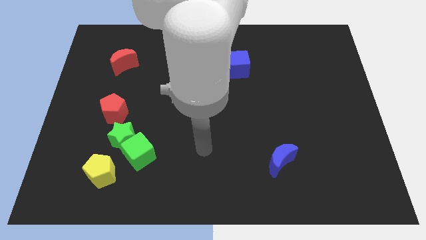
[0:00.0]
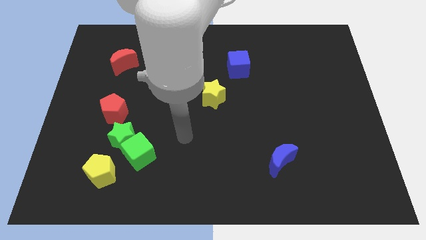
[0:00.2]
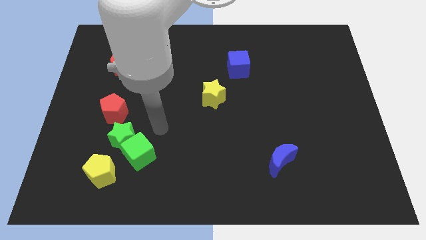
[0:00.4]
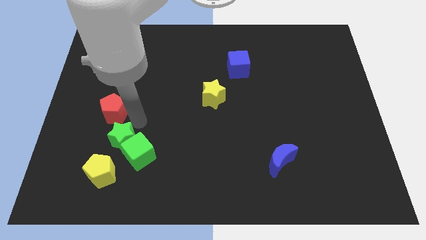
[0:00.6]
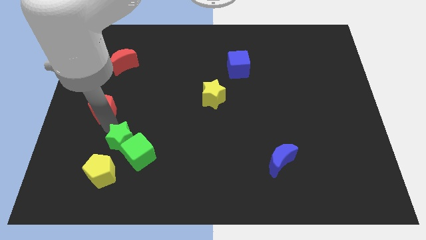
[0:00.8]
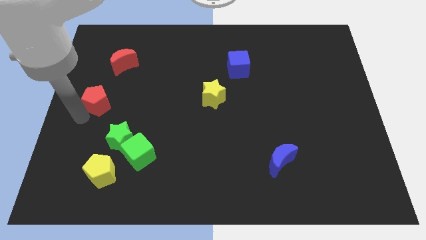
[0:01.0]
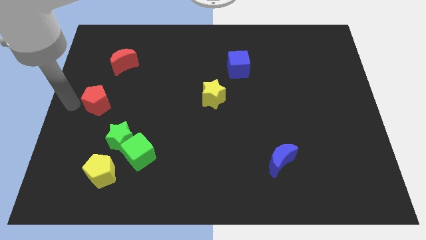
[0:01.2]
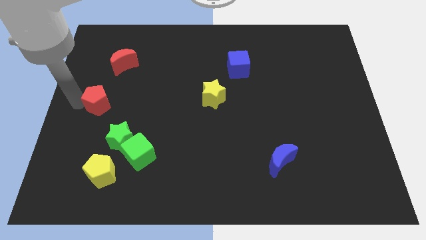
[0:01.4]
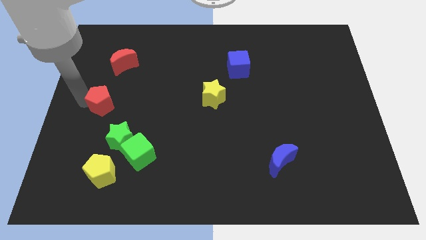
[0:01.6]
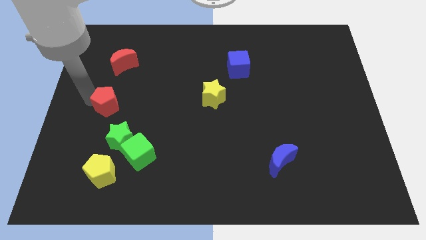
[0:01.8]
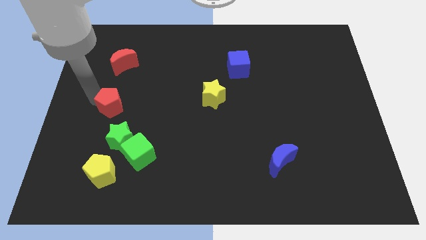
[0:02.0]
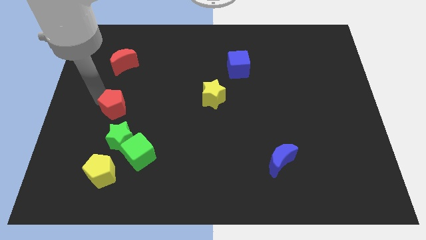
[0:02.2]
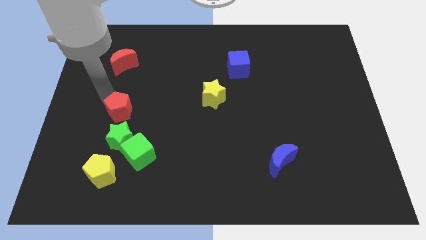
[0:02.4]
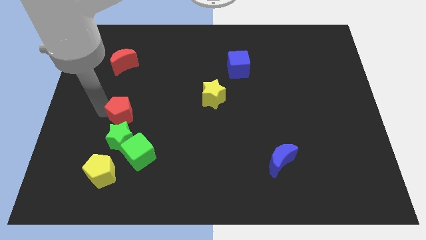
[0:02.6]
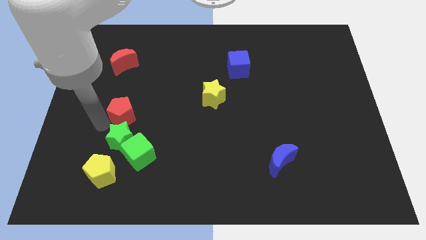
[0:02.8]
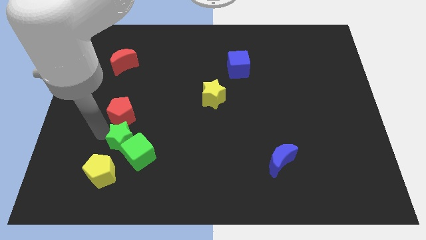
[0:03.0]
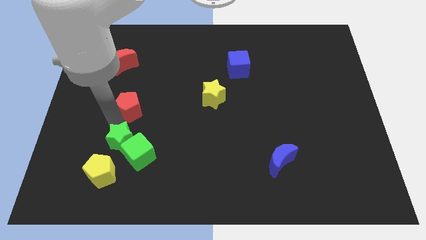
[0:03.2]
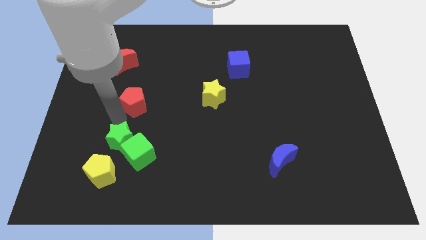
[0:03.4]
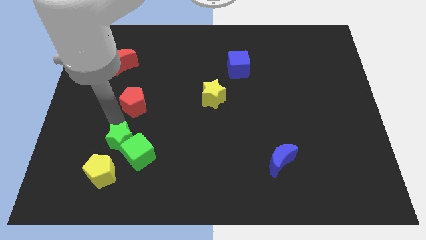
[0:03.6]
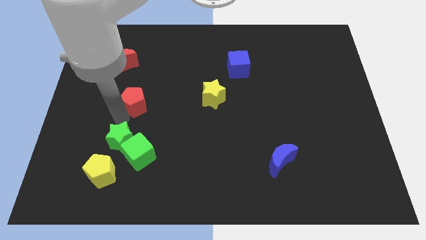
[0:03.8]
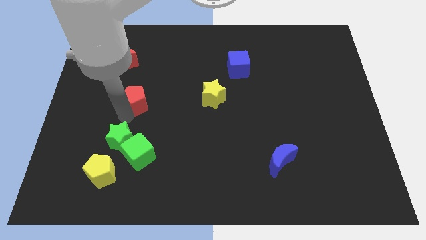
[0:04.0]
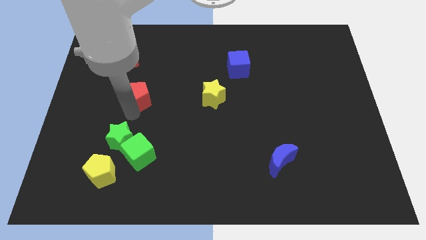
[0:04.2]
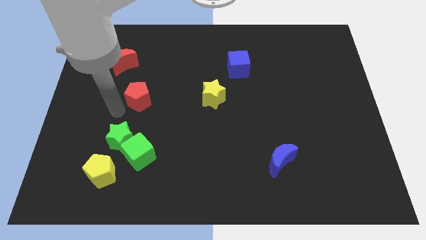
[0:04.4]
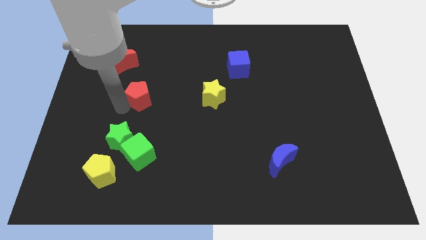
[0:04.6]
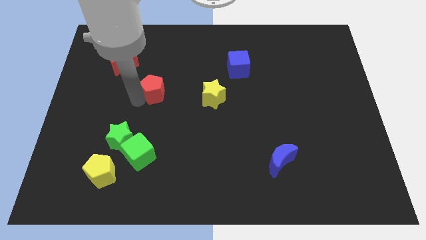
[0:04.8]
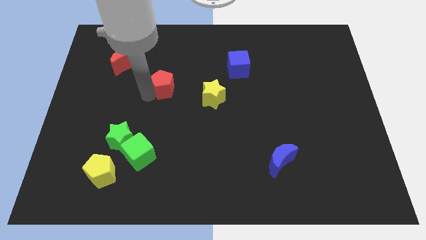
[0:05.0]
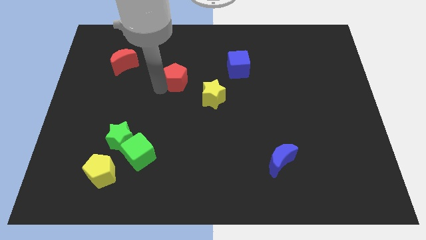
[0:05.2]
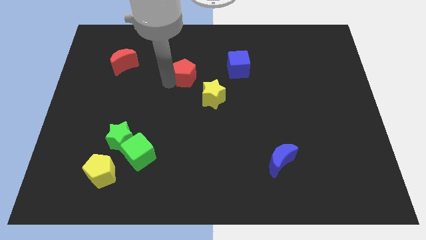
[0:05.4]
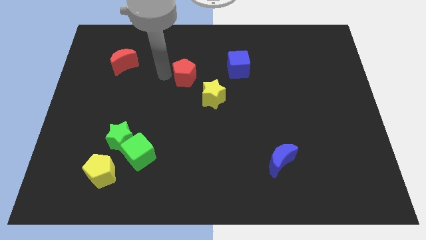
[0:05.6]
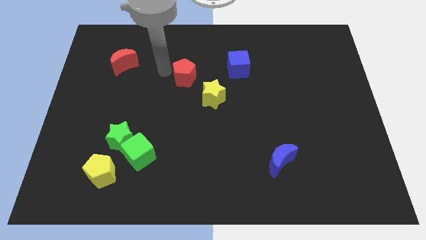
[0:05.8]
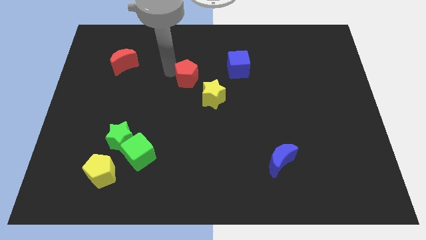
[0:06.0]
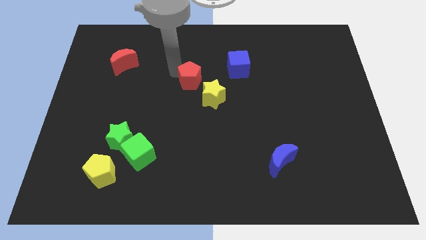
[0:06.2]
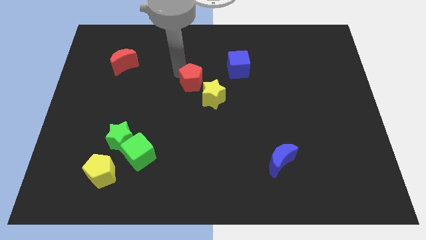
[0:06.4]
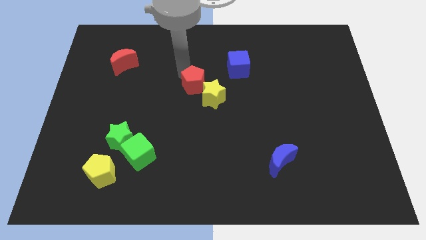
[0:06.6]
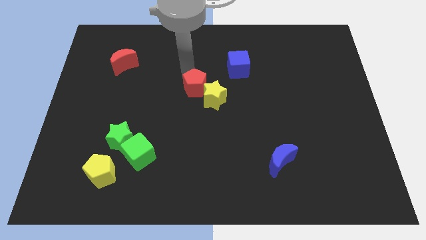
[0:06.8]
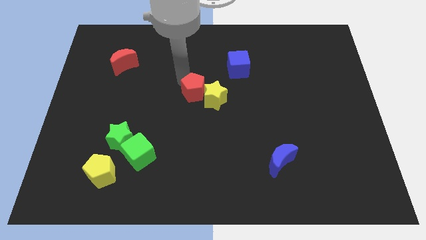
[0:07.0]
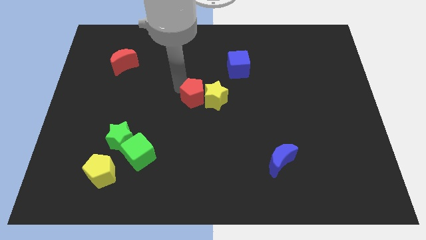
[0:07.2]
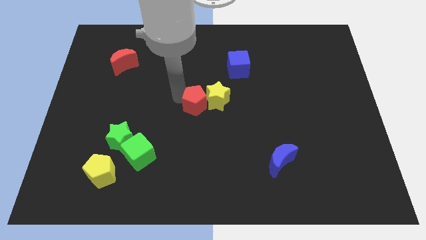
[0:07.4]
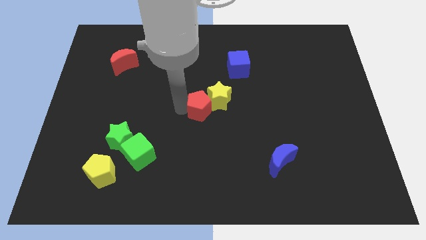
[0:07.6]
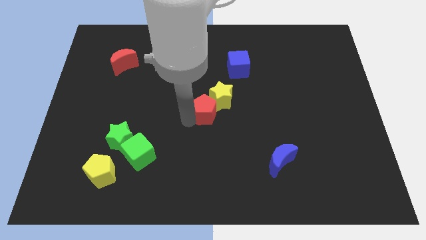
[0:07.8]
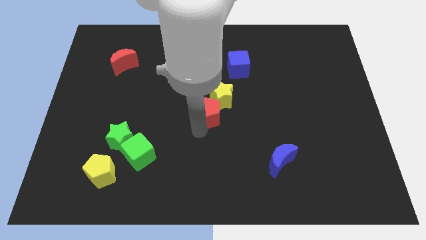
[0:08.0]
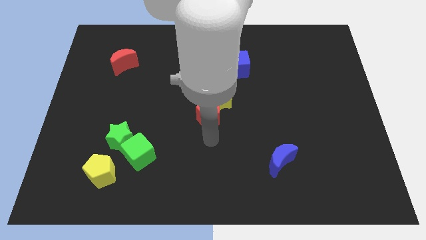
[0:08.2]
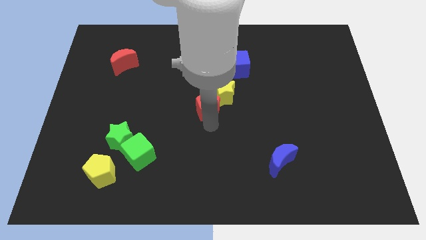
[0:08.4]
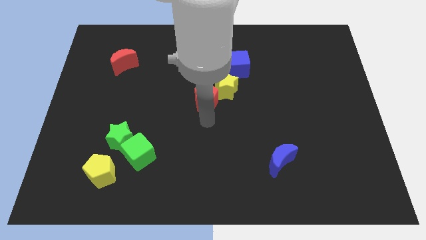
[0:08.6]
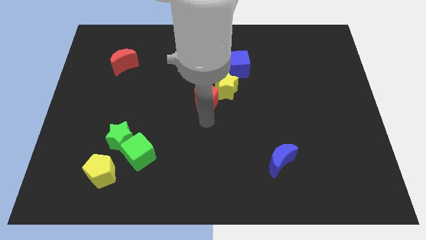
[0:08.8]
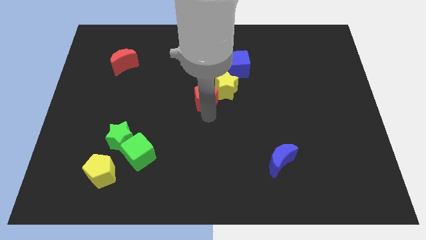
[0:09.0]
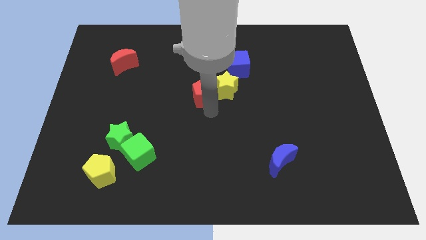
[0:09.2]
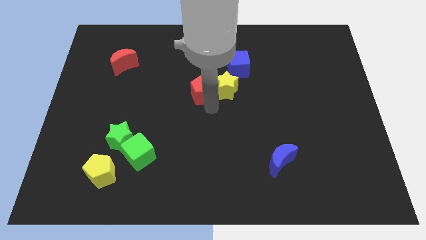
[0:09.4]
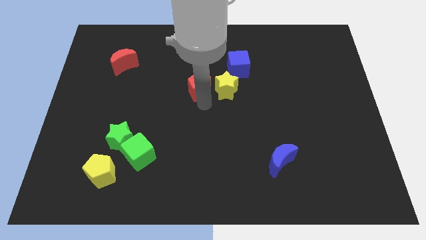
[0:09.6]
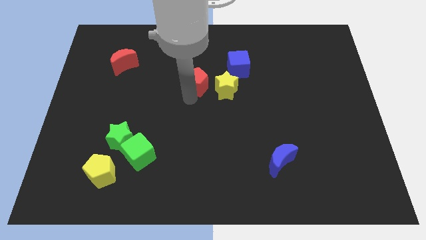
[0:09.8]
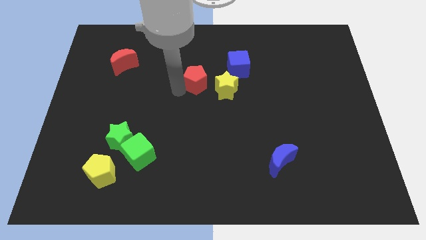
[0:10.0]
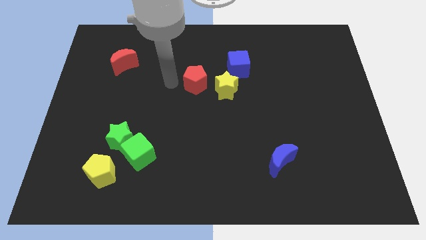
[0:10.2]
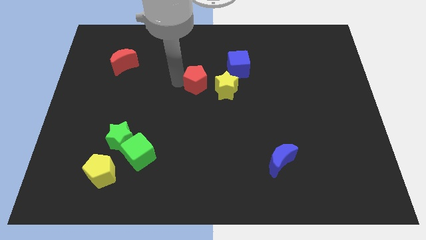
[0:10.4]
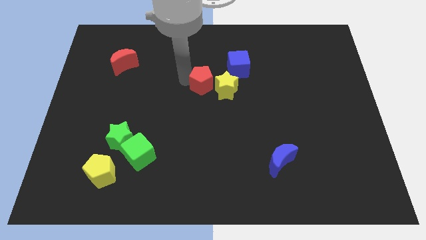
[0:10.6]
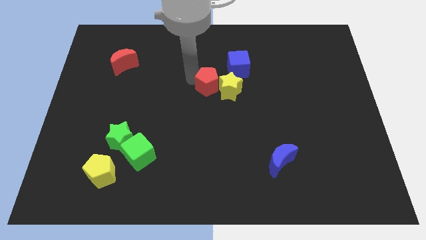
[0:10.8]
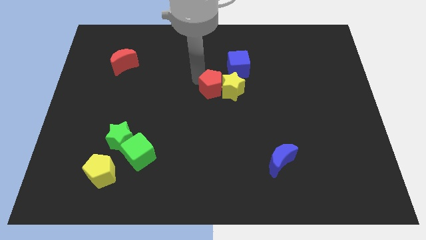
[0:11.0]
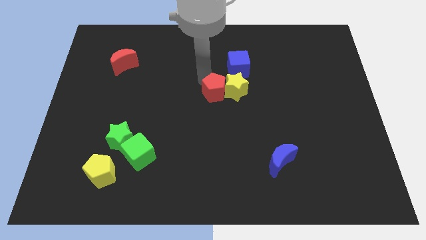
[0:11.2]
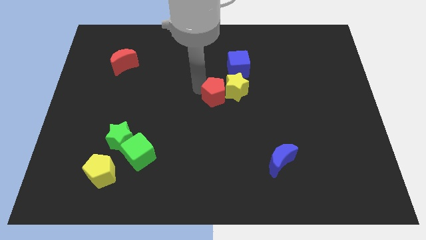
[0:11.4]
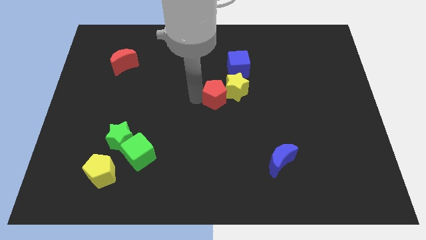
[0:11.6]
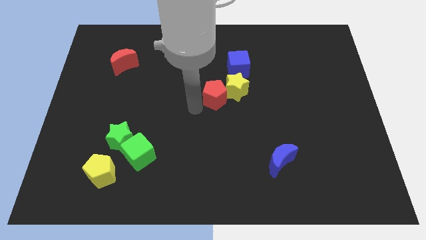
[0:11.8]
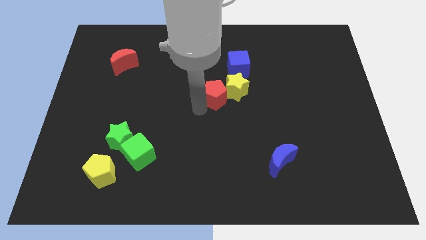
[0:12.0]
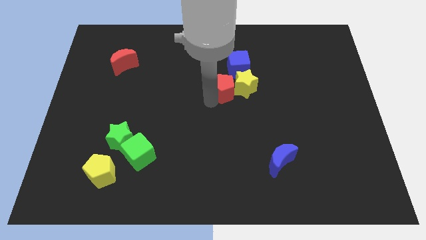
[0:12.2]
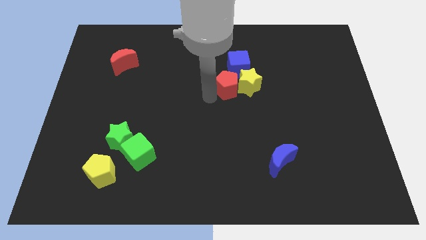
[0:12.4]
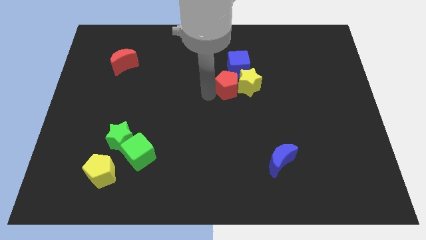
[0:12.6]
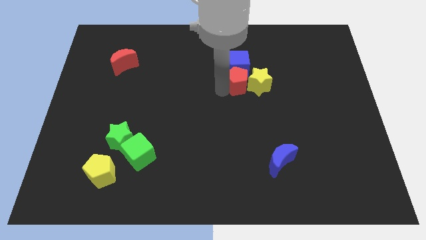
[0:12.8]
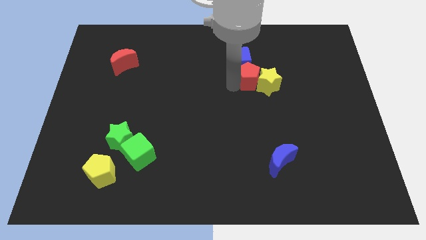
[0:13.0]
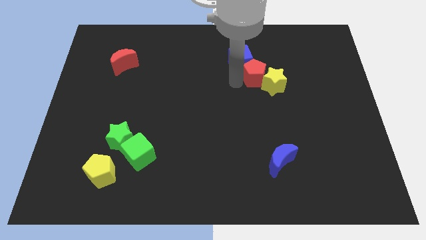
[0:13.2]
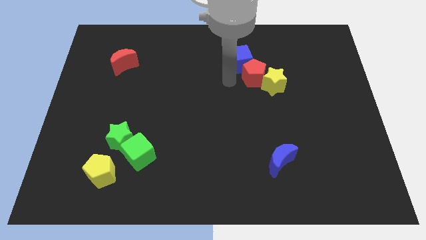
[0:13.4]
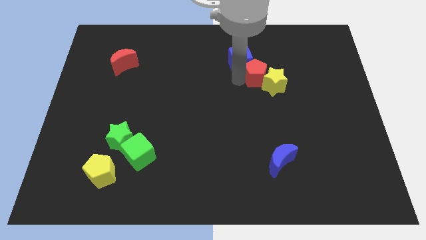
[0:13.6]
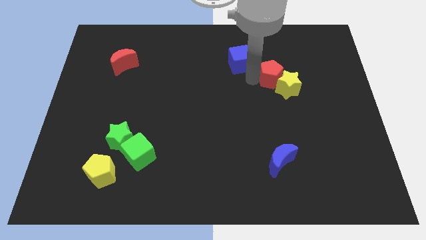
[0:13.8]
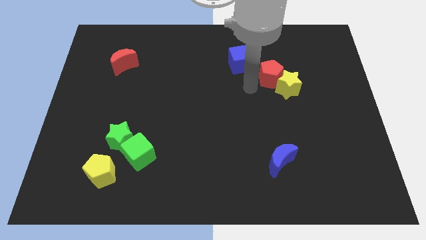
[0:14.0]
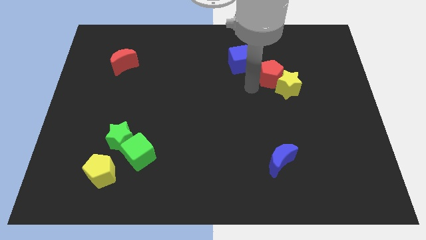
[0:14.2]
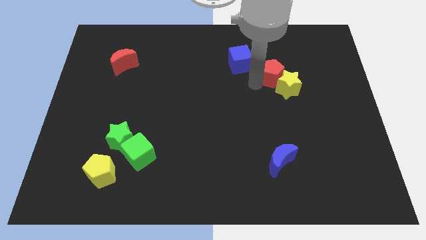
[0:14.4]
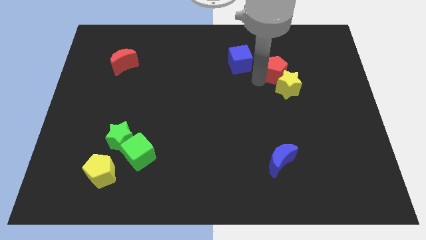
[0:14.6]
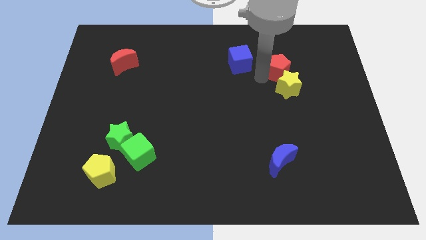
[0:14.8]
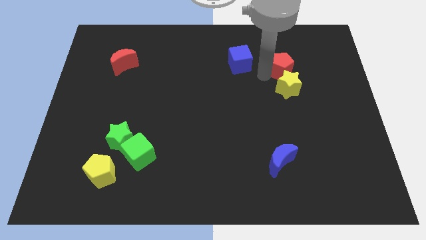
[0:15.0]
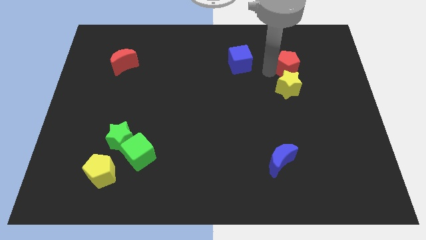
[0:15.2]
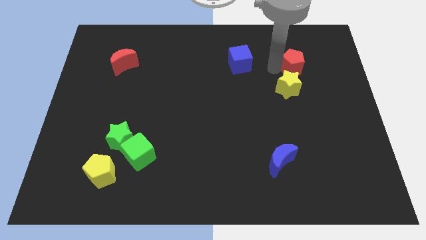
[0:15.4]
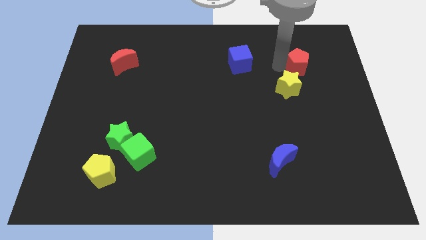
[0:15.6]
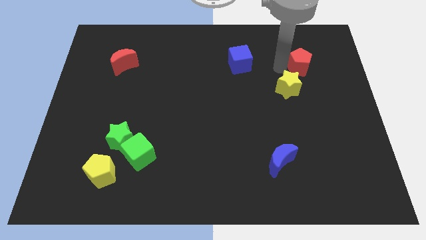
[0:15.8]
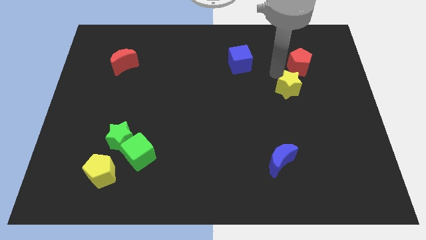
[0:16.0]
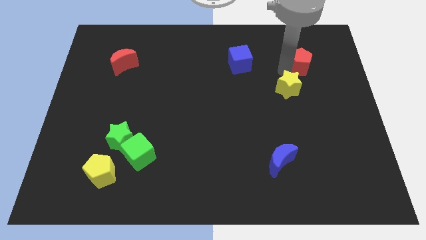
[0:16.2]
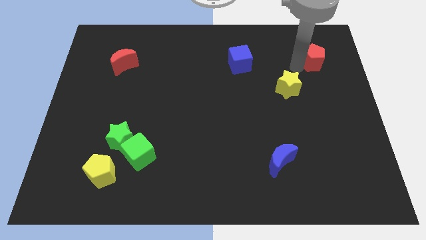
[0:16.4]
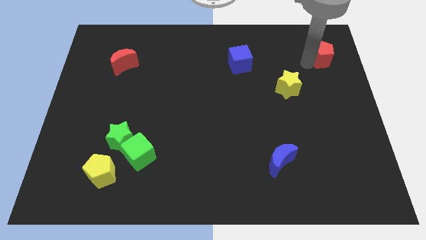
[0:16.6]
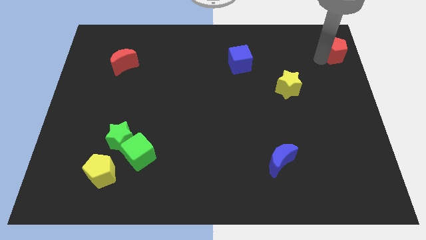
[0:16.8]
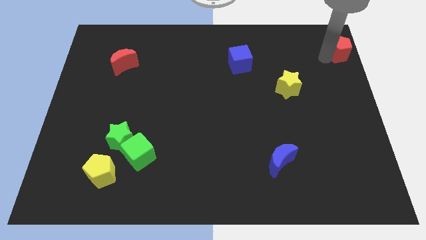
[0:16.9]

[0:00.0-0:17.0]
slide the red pentagon to the top right corner
